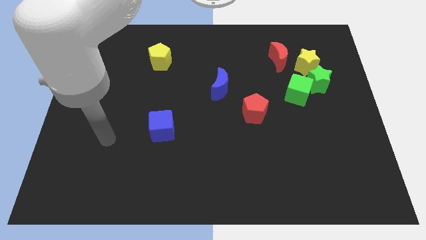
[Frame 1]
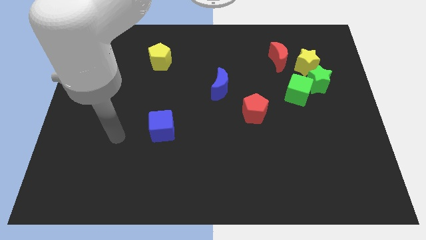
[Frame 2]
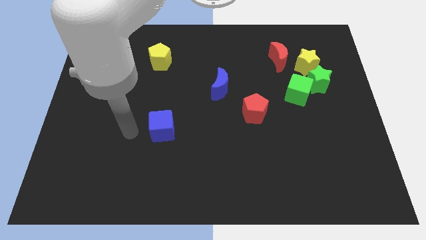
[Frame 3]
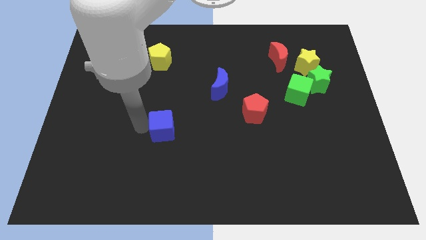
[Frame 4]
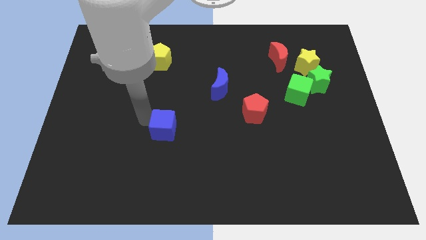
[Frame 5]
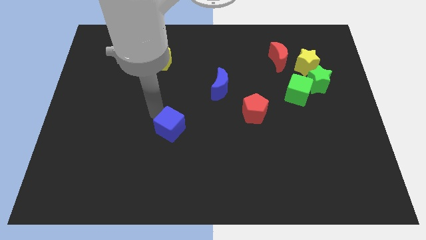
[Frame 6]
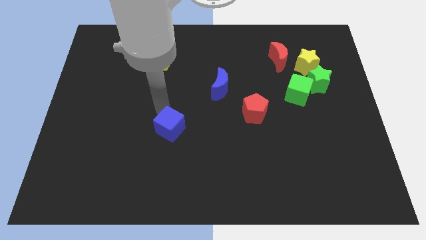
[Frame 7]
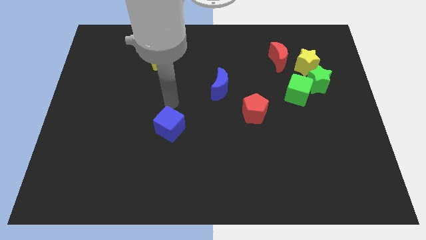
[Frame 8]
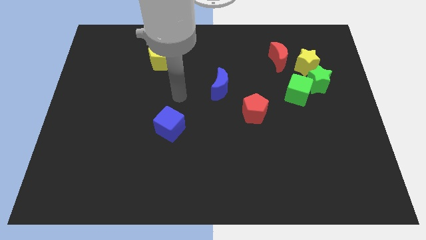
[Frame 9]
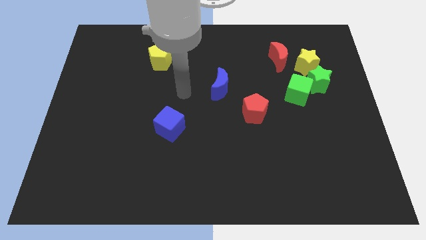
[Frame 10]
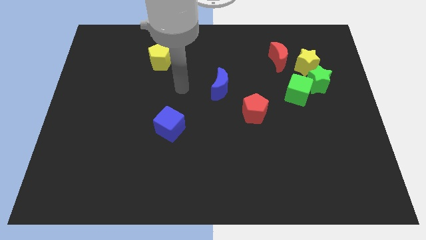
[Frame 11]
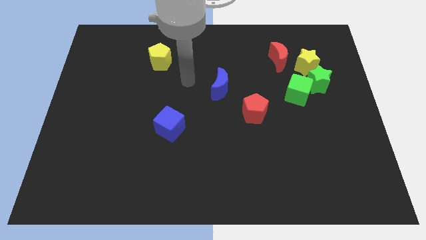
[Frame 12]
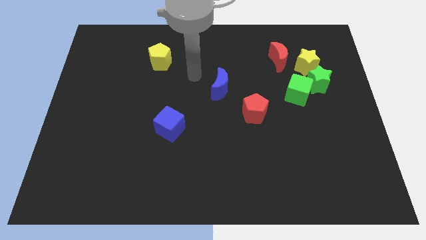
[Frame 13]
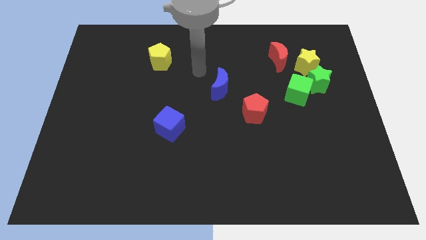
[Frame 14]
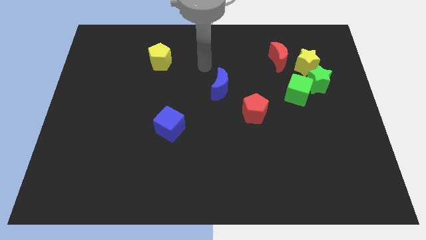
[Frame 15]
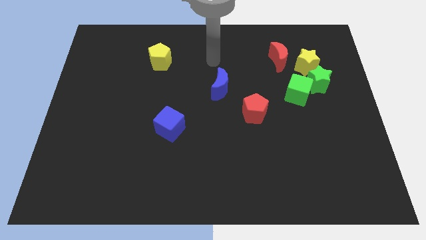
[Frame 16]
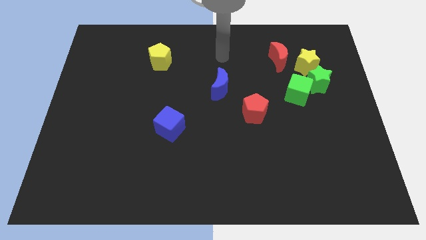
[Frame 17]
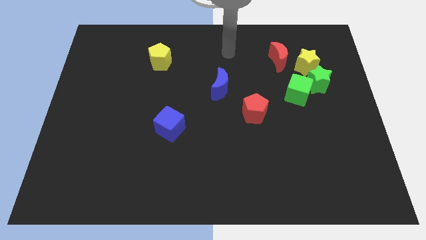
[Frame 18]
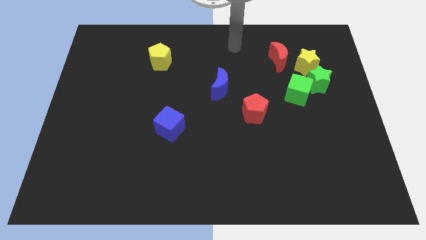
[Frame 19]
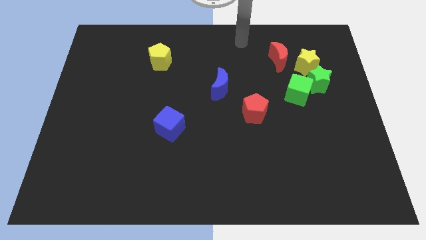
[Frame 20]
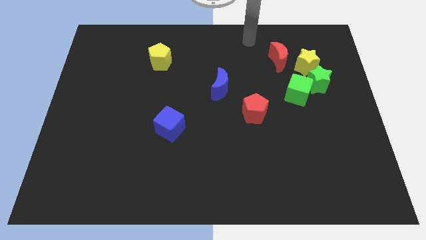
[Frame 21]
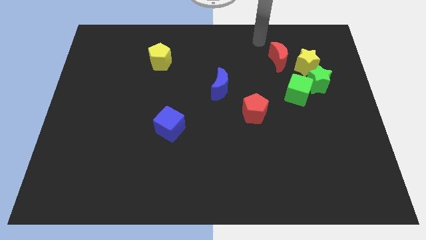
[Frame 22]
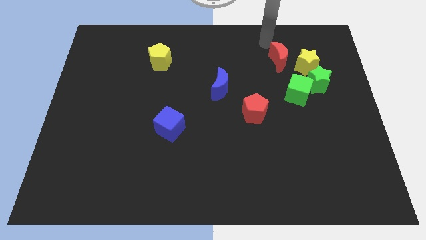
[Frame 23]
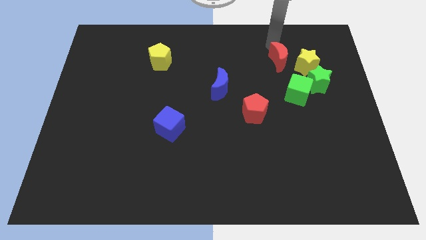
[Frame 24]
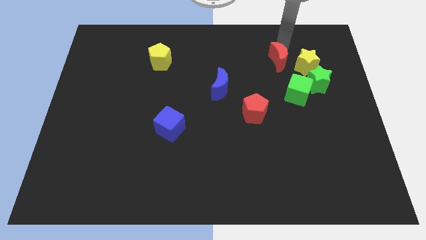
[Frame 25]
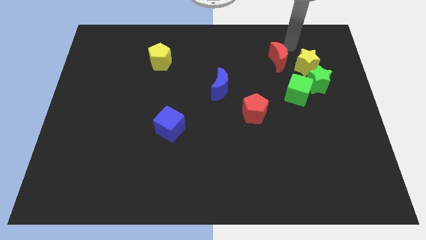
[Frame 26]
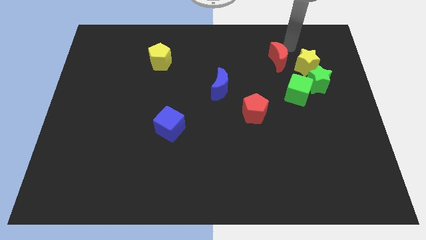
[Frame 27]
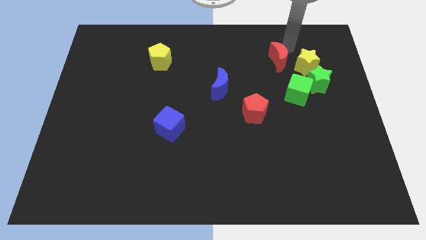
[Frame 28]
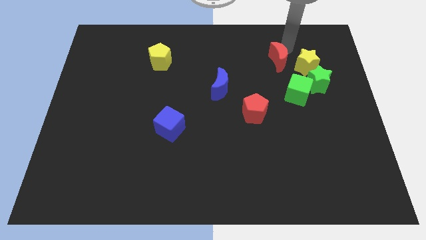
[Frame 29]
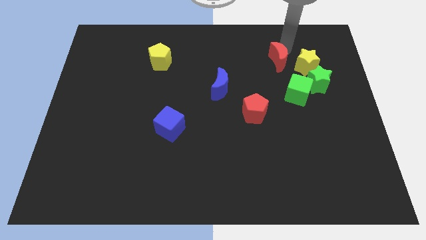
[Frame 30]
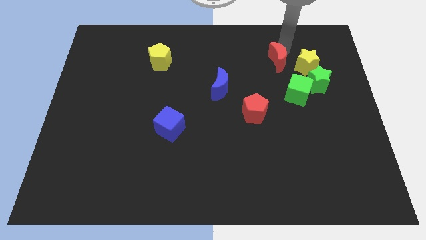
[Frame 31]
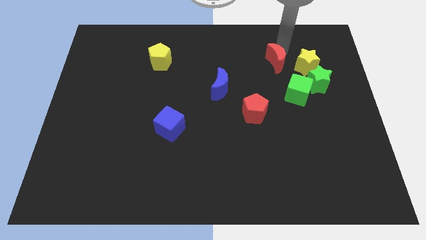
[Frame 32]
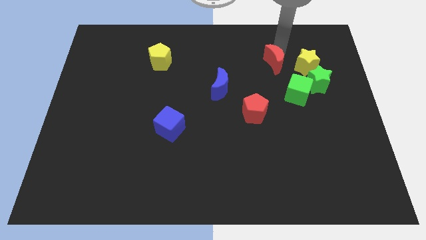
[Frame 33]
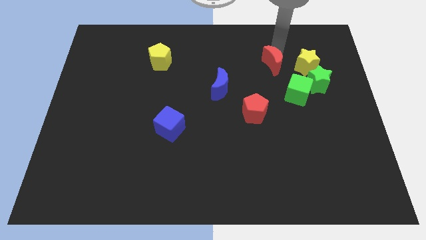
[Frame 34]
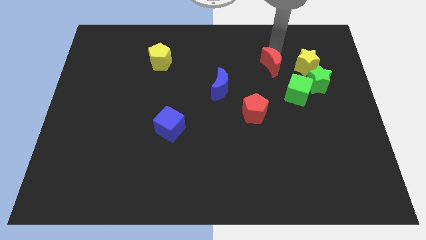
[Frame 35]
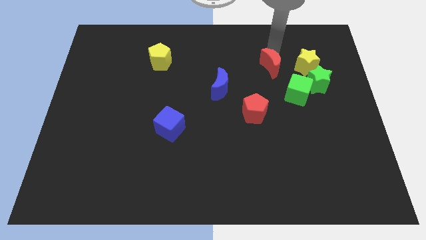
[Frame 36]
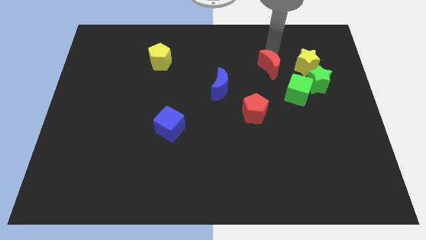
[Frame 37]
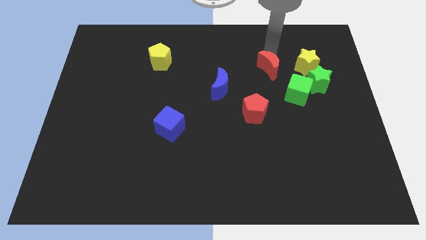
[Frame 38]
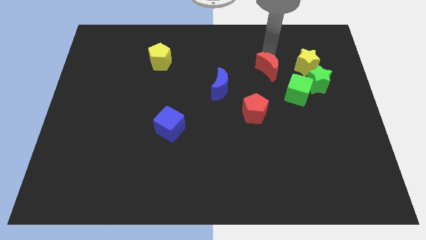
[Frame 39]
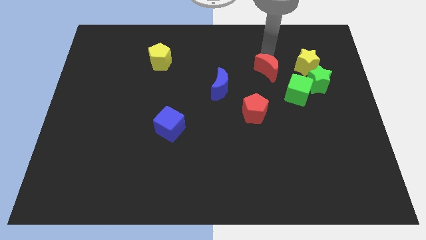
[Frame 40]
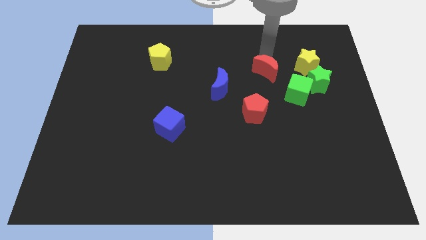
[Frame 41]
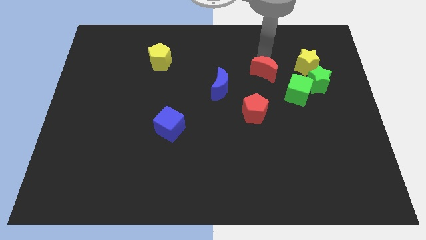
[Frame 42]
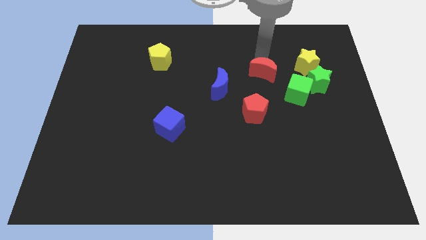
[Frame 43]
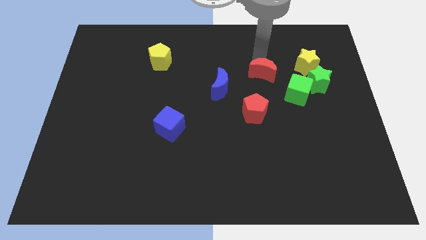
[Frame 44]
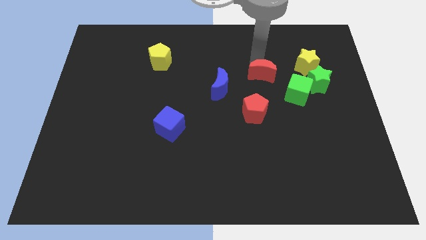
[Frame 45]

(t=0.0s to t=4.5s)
slide the red moon just right of the blue moon

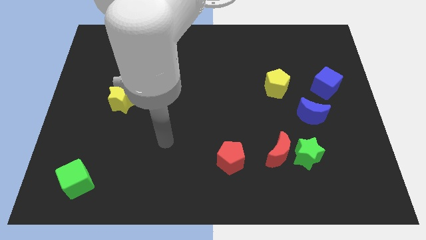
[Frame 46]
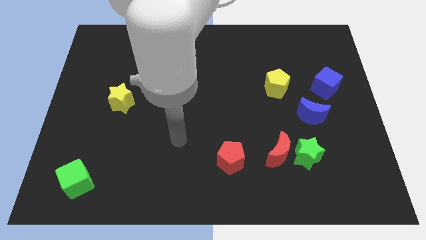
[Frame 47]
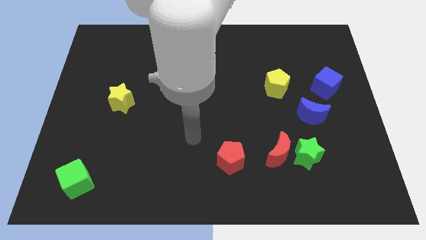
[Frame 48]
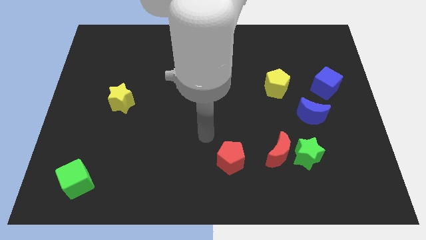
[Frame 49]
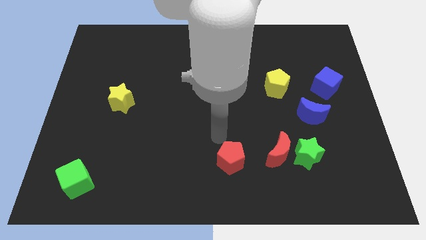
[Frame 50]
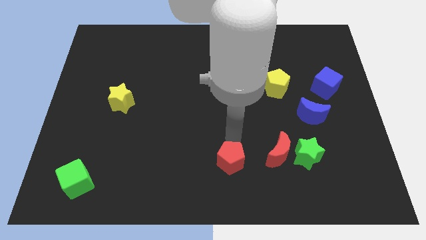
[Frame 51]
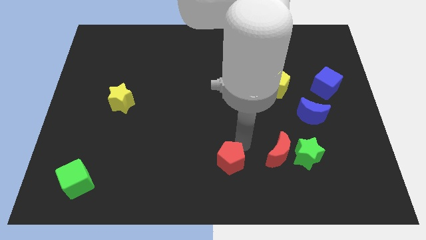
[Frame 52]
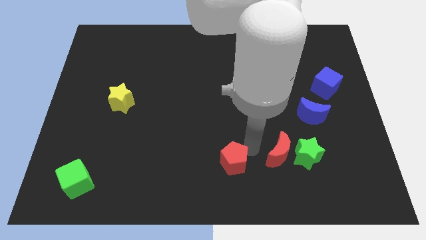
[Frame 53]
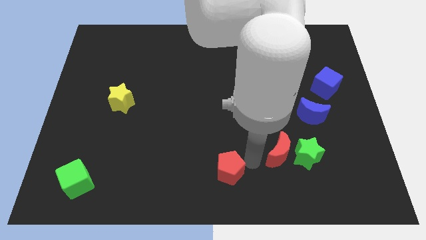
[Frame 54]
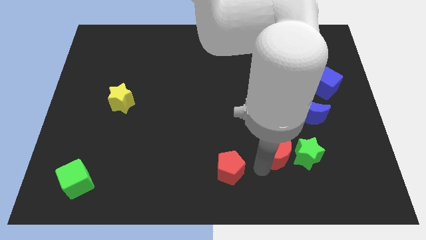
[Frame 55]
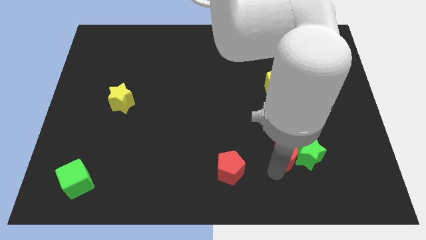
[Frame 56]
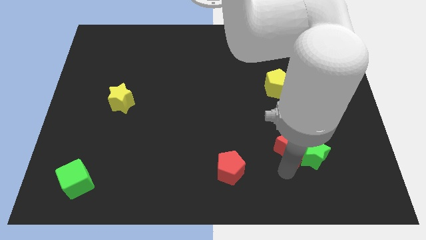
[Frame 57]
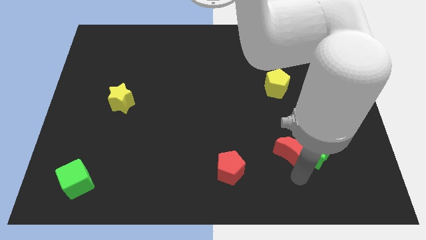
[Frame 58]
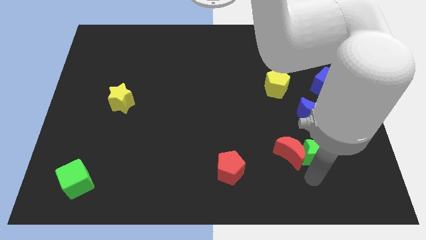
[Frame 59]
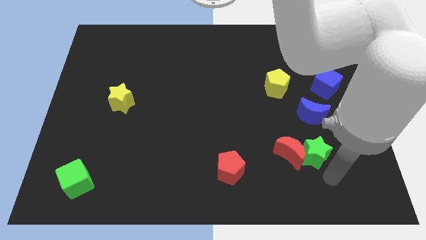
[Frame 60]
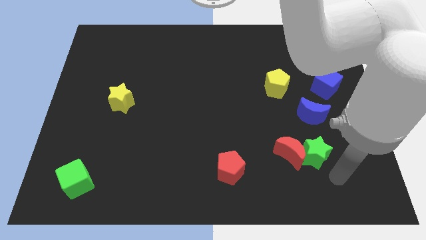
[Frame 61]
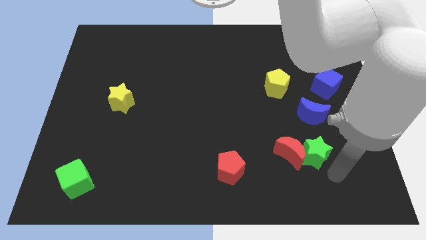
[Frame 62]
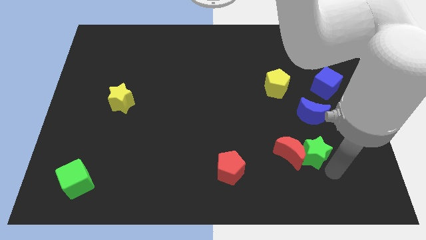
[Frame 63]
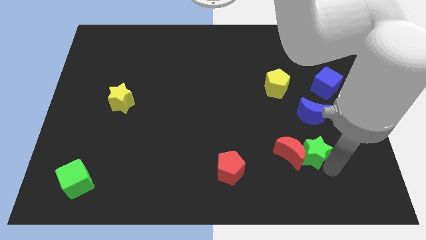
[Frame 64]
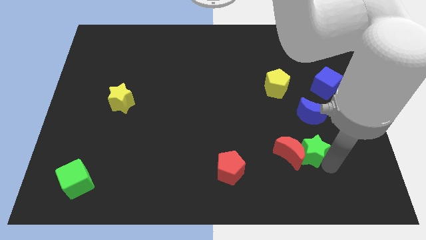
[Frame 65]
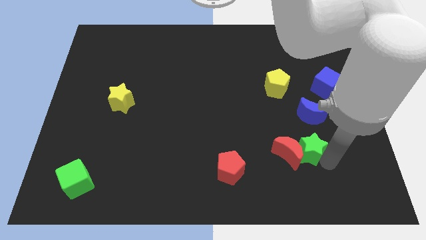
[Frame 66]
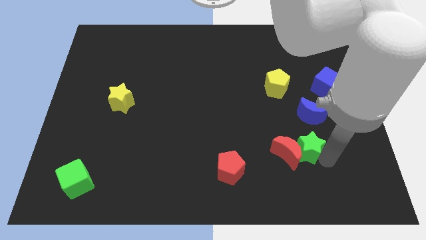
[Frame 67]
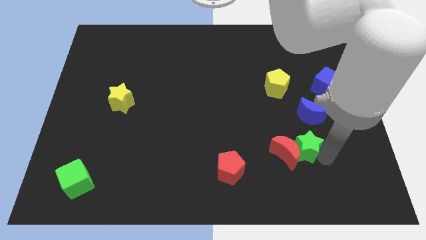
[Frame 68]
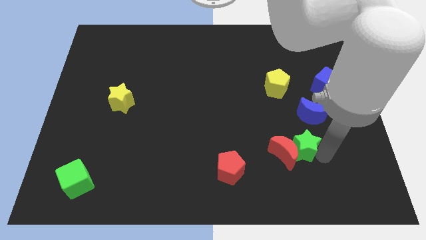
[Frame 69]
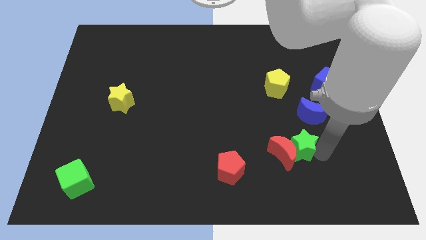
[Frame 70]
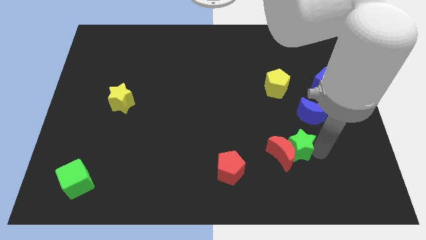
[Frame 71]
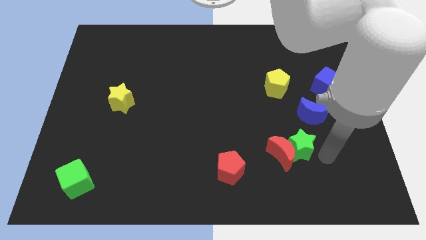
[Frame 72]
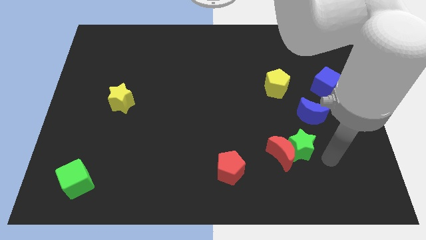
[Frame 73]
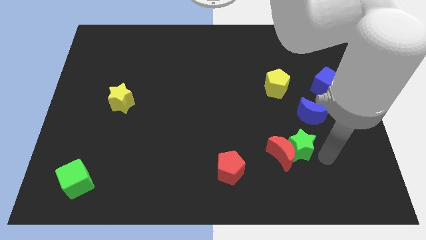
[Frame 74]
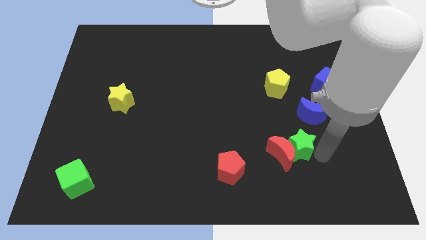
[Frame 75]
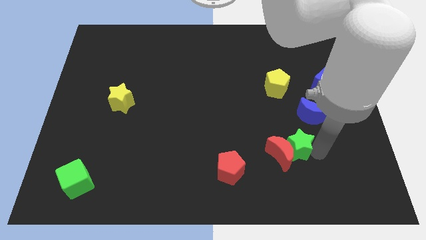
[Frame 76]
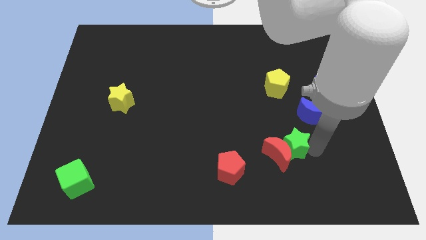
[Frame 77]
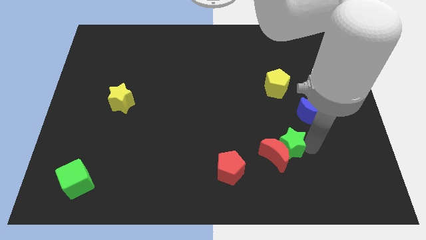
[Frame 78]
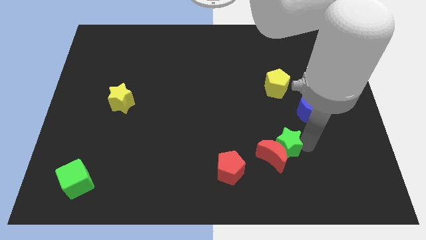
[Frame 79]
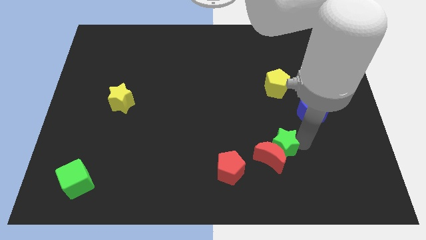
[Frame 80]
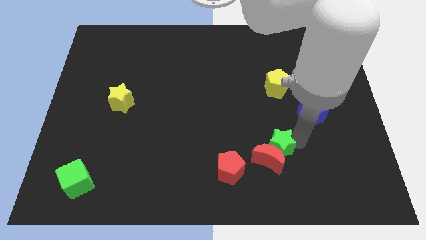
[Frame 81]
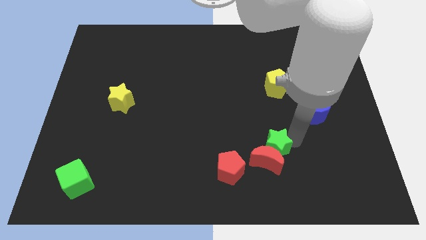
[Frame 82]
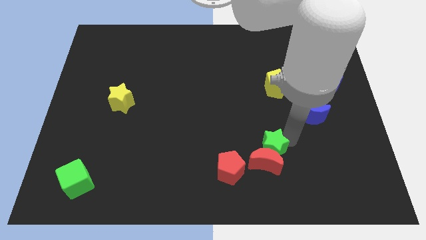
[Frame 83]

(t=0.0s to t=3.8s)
move the green star diagonally up and to the left of the red moon
